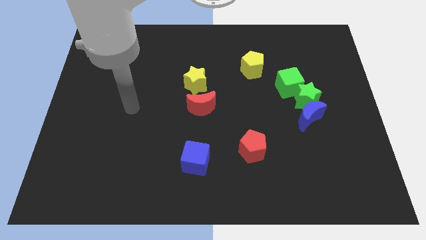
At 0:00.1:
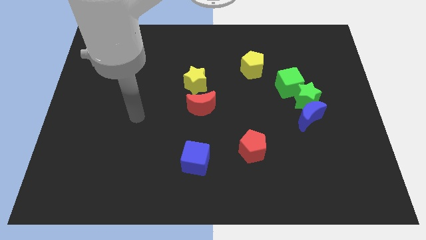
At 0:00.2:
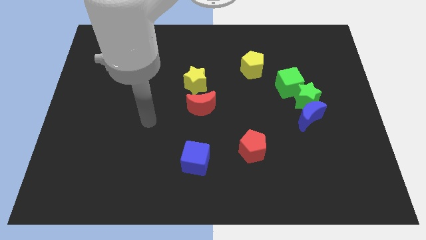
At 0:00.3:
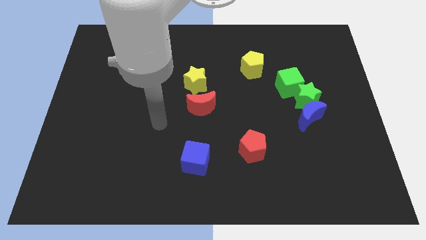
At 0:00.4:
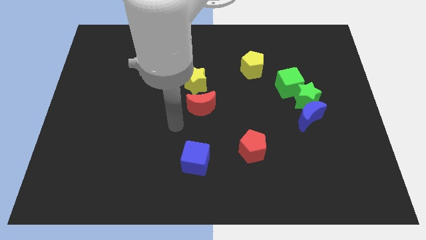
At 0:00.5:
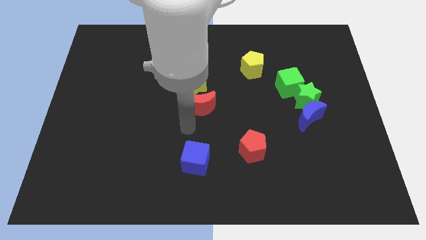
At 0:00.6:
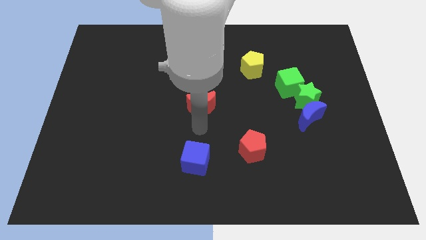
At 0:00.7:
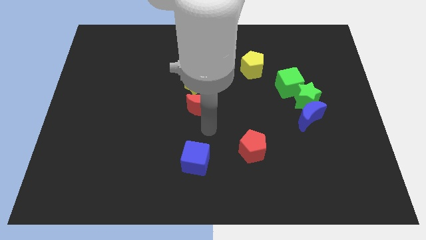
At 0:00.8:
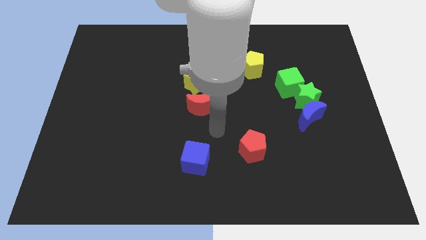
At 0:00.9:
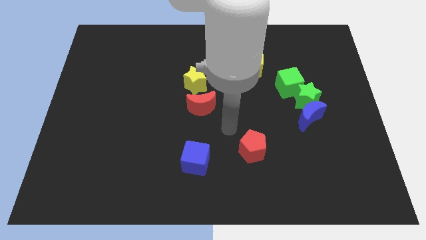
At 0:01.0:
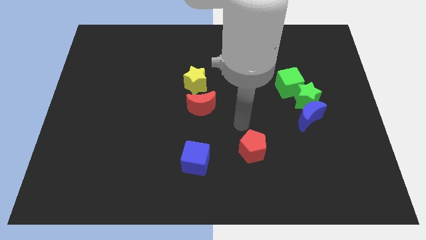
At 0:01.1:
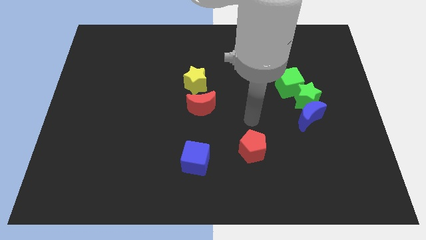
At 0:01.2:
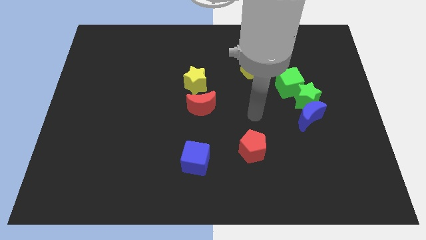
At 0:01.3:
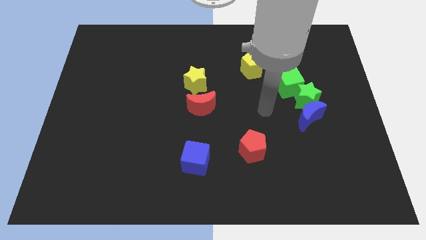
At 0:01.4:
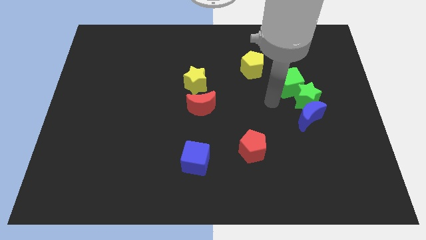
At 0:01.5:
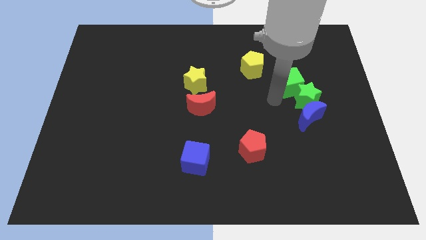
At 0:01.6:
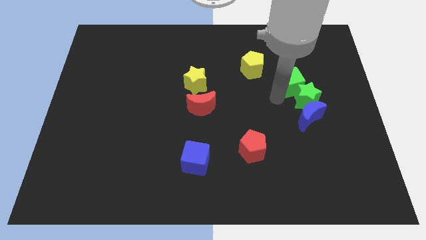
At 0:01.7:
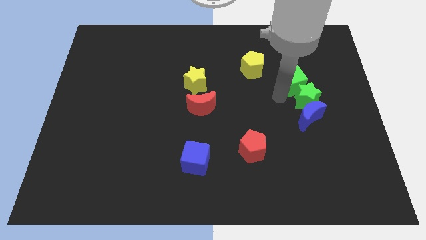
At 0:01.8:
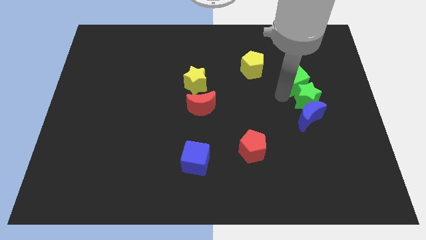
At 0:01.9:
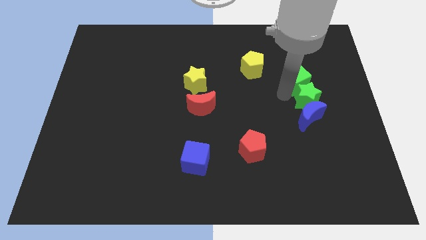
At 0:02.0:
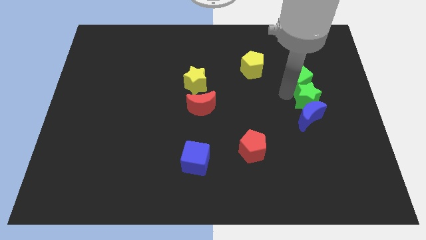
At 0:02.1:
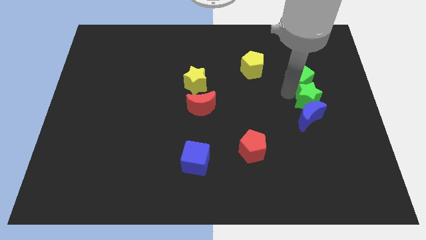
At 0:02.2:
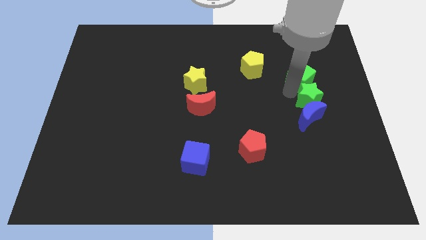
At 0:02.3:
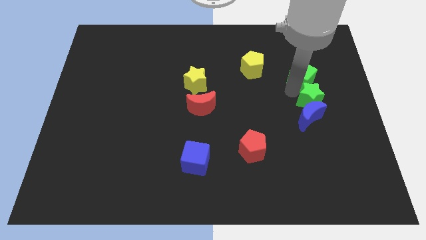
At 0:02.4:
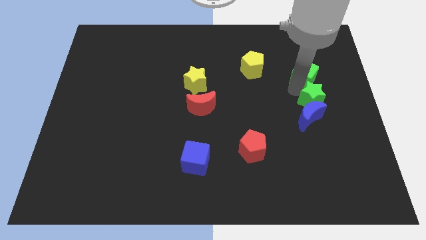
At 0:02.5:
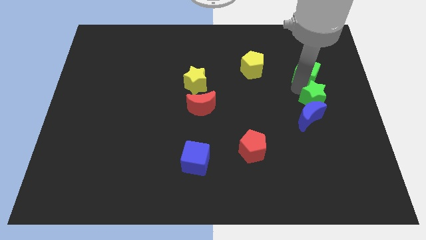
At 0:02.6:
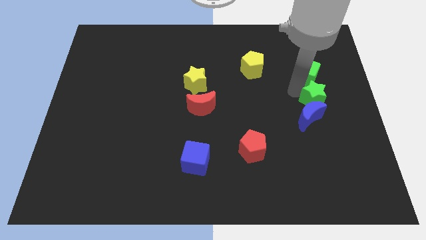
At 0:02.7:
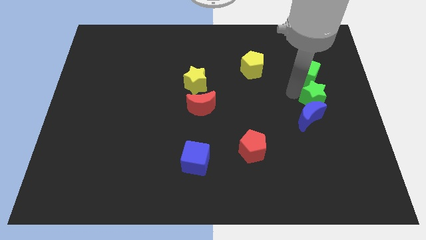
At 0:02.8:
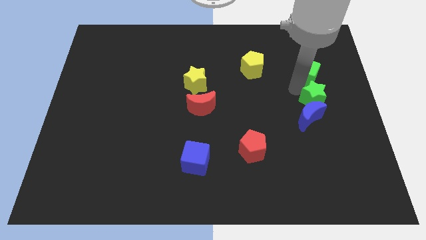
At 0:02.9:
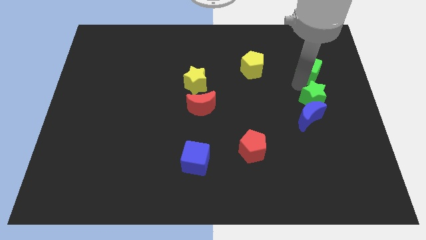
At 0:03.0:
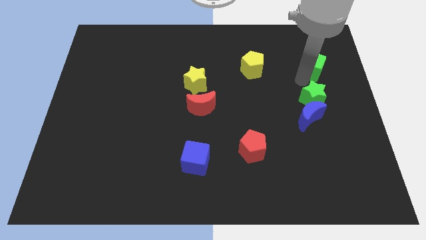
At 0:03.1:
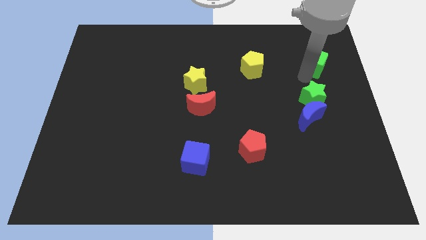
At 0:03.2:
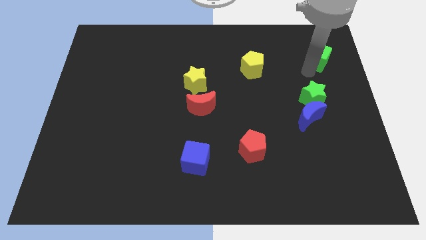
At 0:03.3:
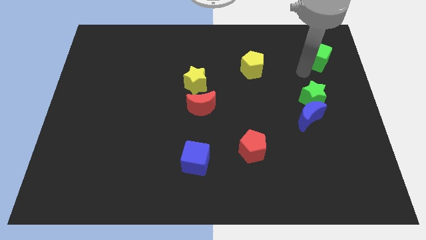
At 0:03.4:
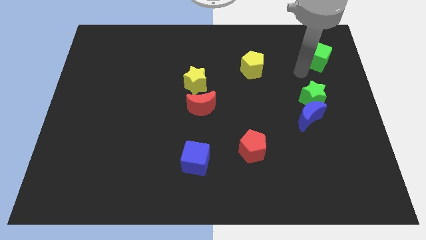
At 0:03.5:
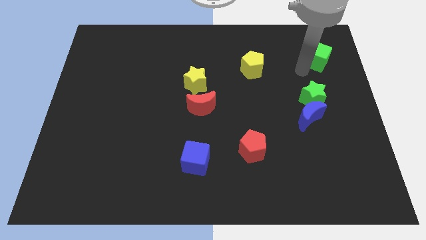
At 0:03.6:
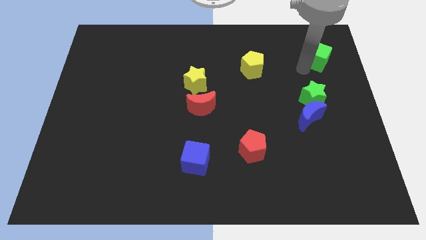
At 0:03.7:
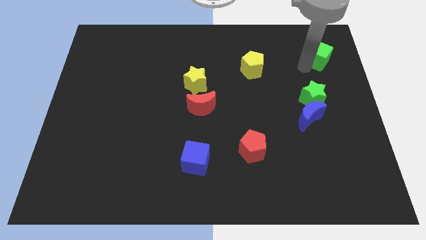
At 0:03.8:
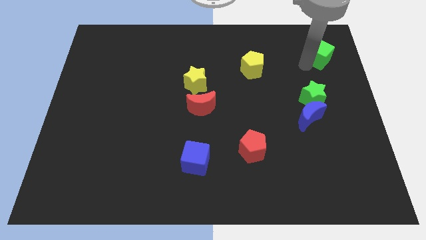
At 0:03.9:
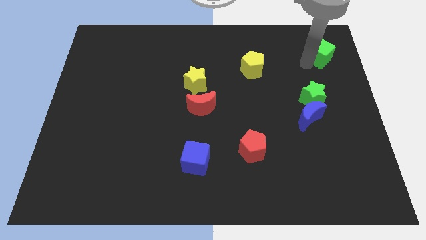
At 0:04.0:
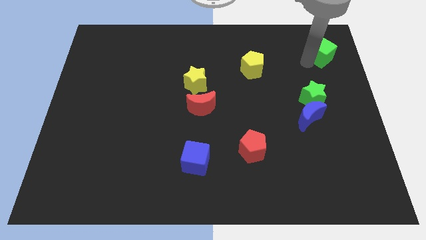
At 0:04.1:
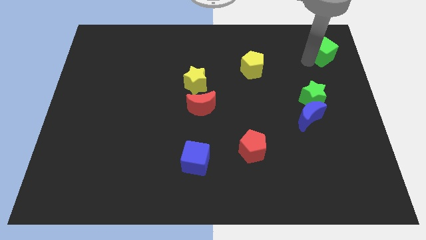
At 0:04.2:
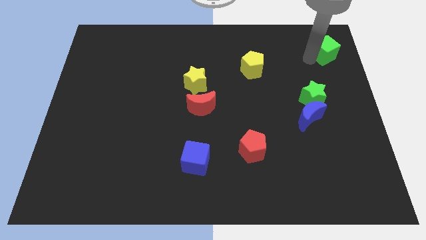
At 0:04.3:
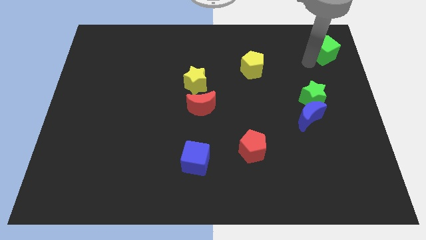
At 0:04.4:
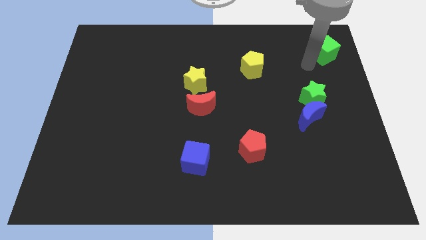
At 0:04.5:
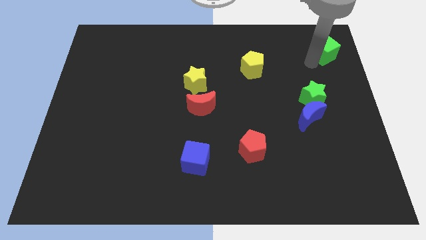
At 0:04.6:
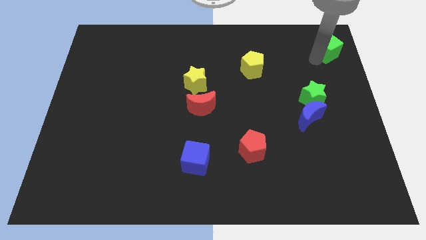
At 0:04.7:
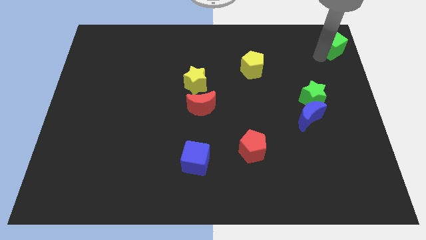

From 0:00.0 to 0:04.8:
put the green cube to the top right

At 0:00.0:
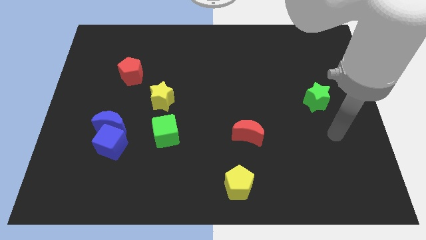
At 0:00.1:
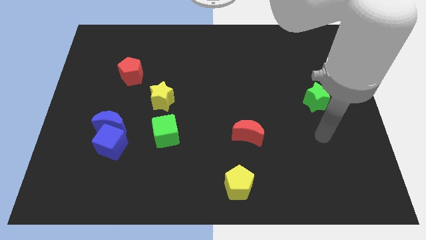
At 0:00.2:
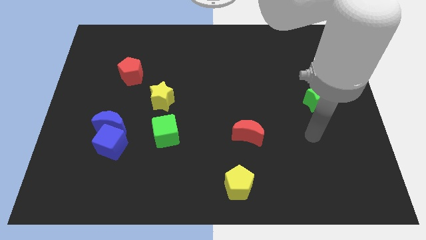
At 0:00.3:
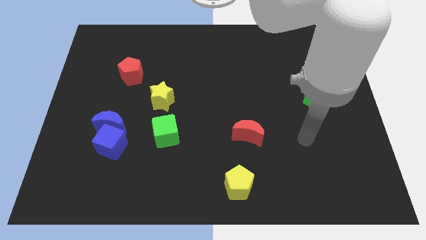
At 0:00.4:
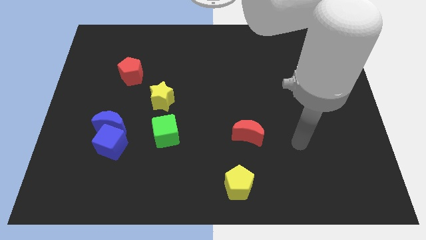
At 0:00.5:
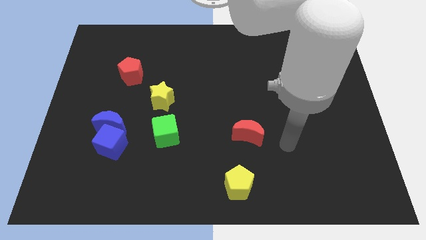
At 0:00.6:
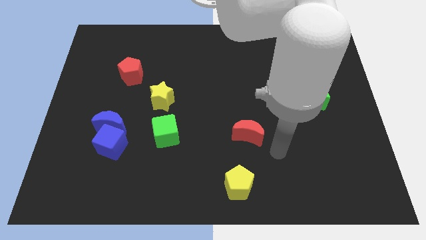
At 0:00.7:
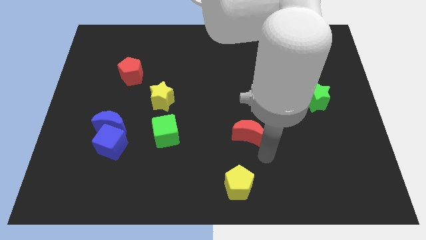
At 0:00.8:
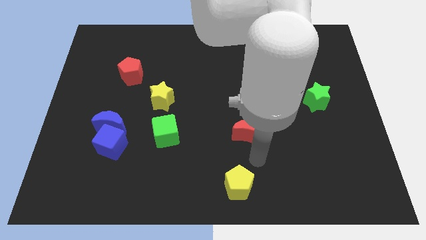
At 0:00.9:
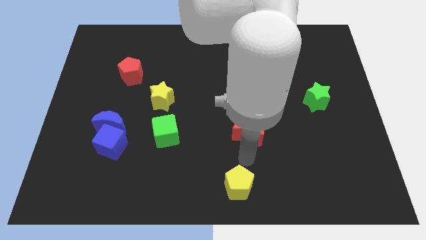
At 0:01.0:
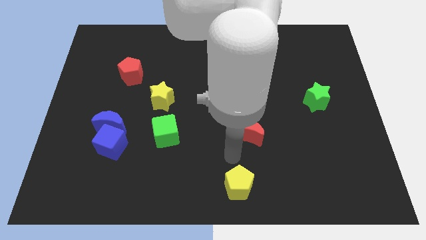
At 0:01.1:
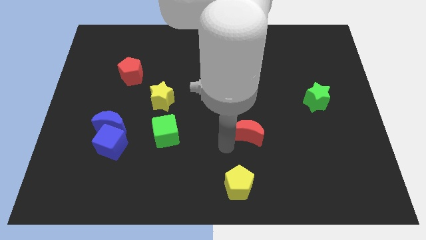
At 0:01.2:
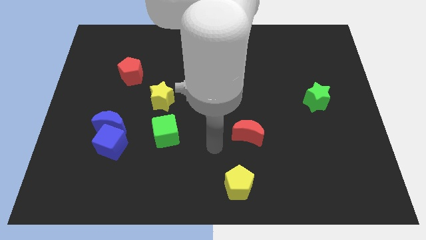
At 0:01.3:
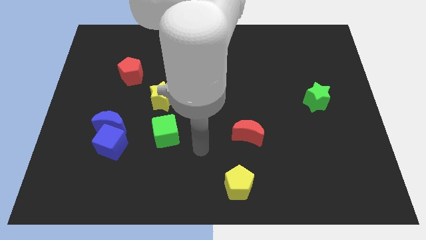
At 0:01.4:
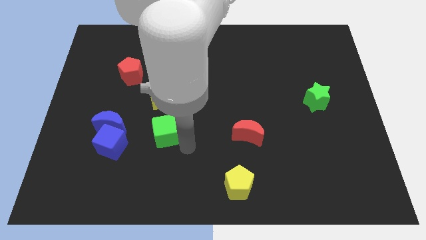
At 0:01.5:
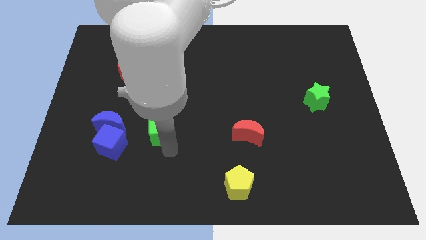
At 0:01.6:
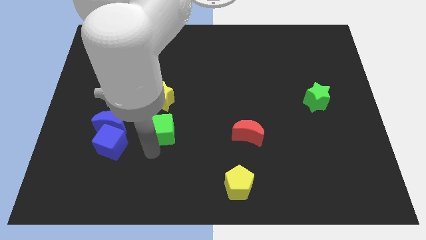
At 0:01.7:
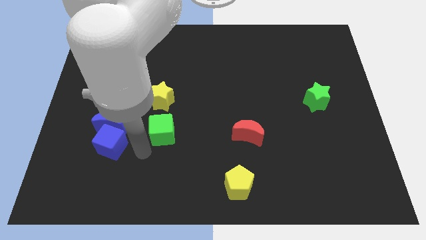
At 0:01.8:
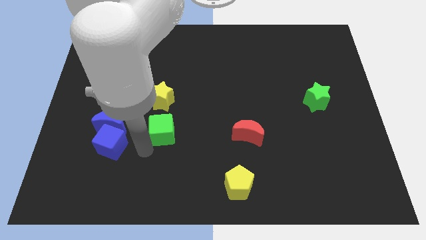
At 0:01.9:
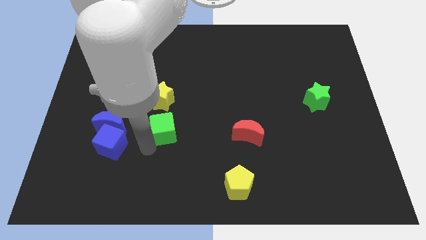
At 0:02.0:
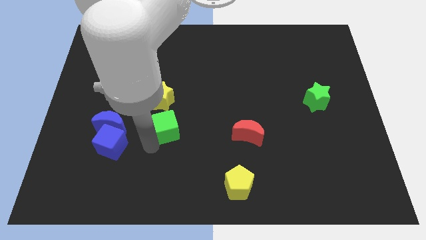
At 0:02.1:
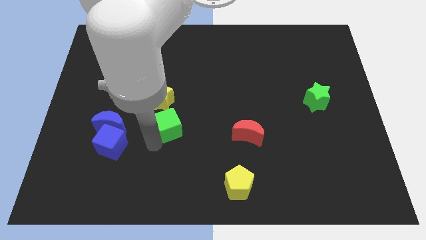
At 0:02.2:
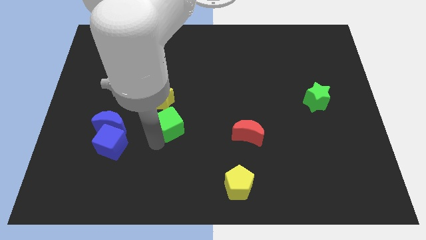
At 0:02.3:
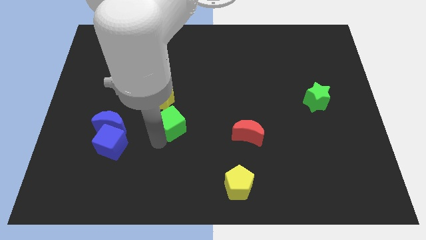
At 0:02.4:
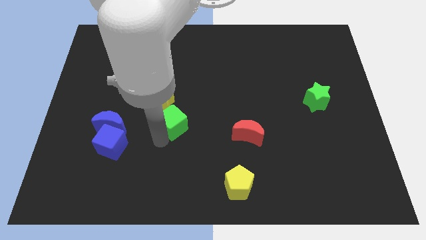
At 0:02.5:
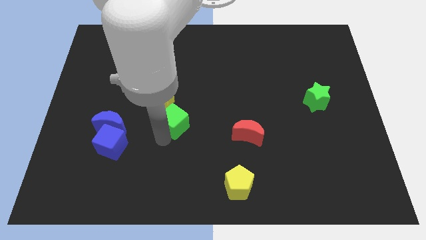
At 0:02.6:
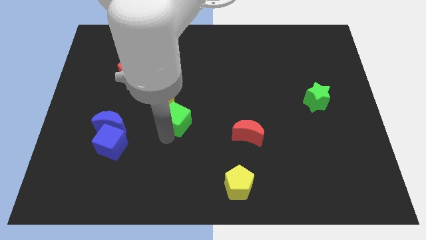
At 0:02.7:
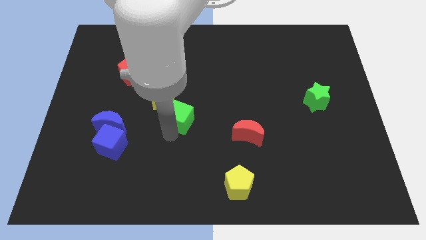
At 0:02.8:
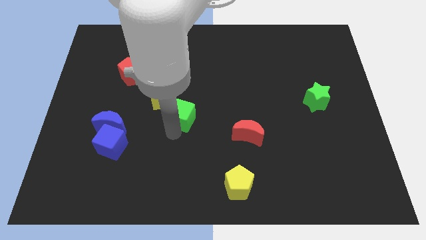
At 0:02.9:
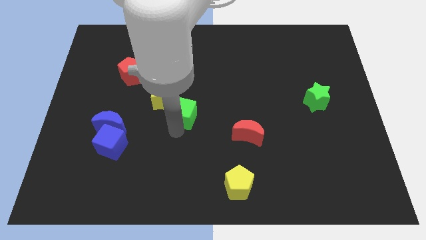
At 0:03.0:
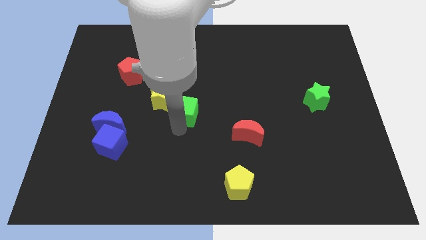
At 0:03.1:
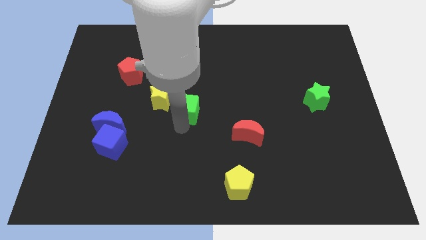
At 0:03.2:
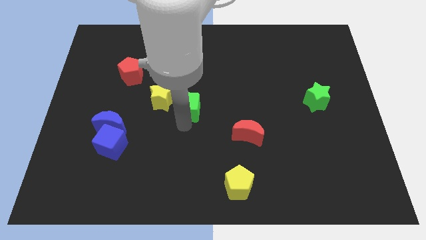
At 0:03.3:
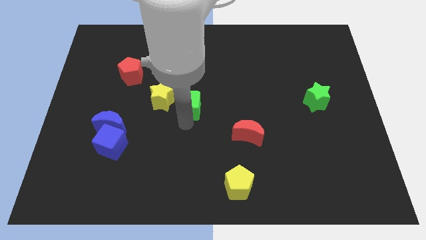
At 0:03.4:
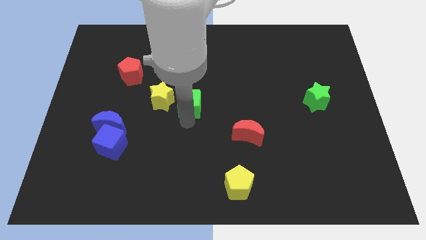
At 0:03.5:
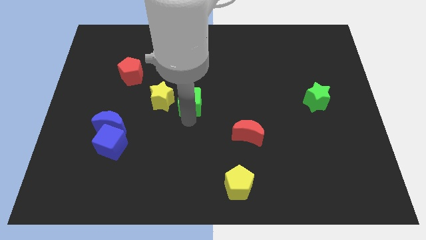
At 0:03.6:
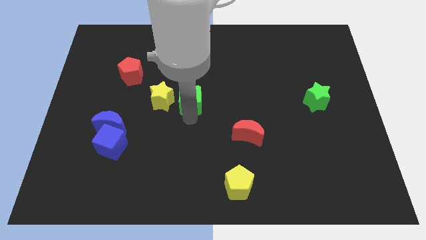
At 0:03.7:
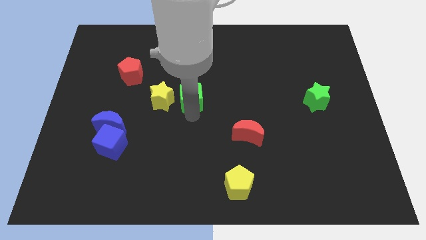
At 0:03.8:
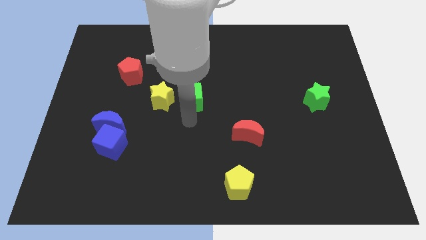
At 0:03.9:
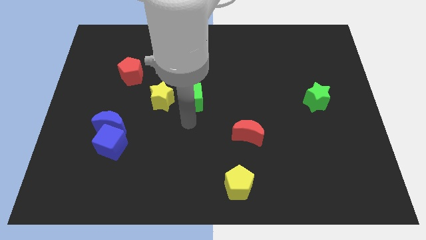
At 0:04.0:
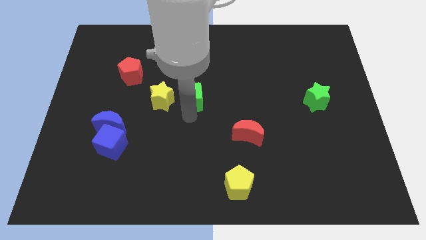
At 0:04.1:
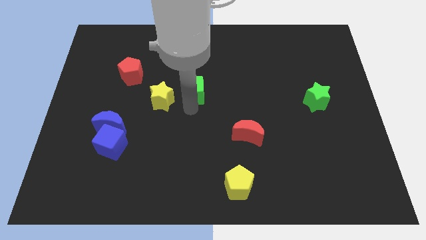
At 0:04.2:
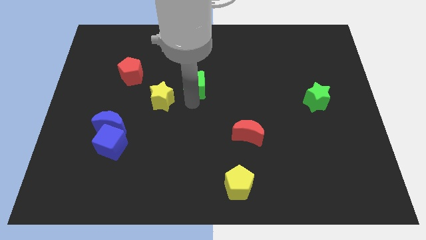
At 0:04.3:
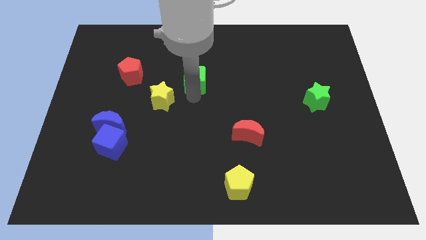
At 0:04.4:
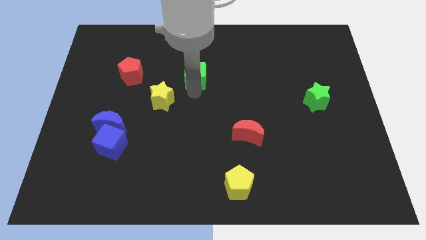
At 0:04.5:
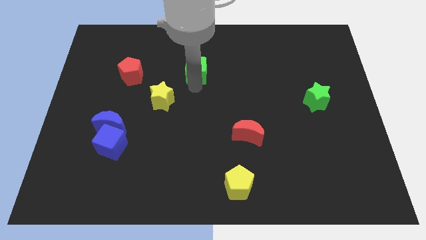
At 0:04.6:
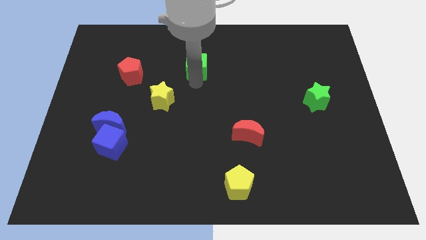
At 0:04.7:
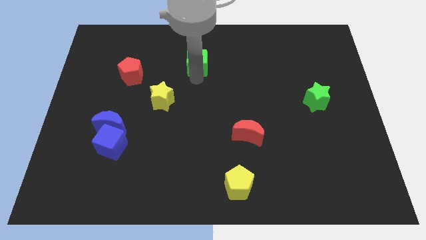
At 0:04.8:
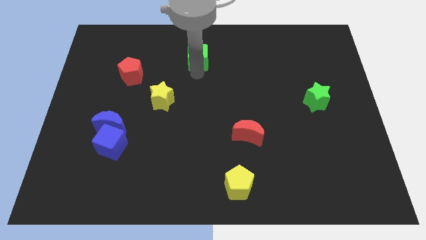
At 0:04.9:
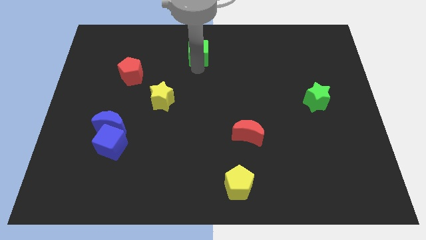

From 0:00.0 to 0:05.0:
move the green cube to the towards your base
